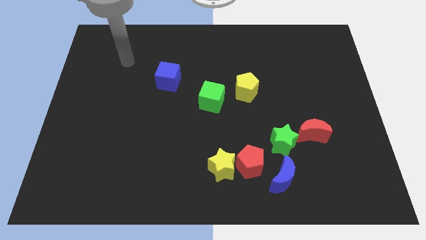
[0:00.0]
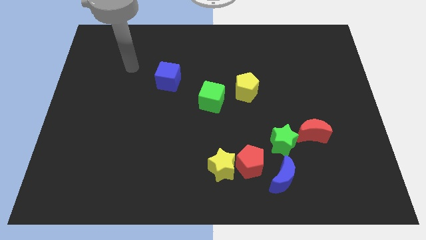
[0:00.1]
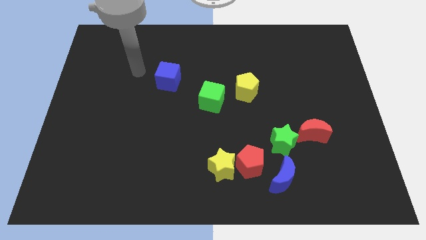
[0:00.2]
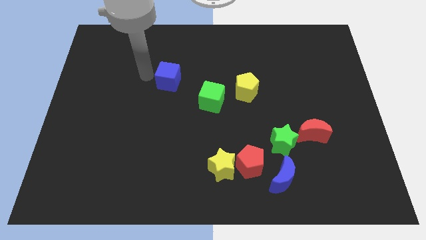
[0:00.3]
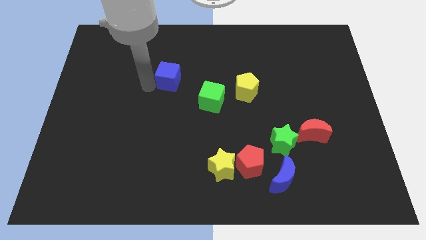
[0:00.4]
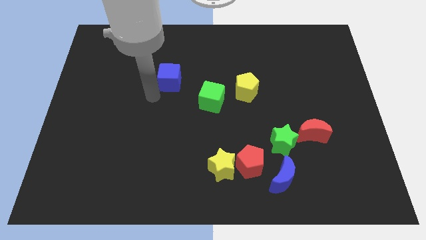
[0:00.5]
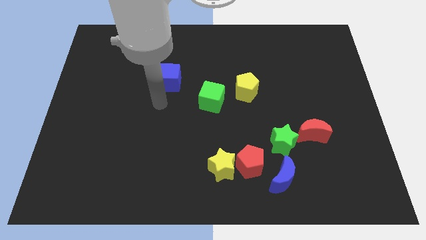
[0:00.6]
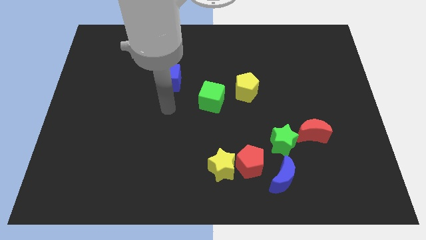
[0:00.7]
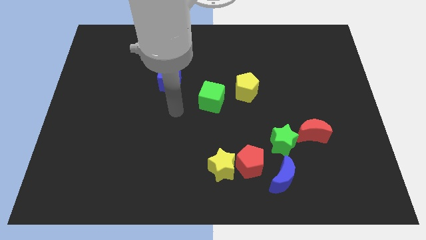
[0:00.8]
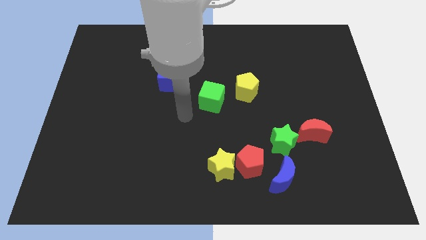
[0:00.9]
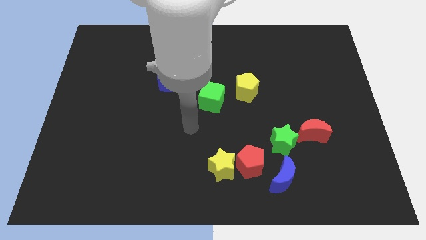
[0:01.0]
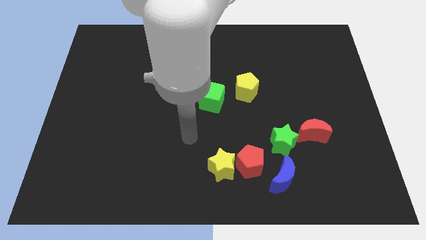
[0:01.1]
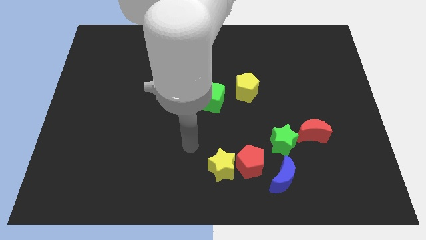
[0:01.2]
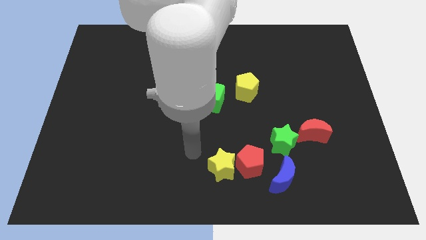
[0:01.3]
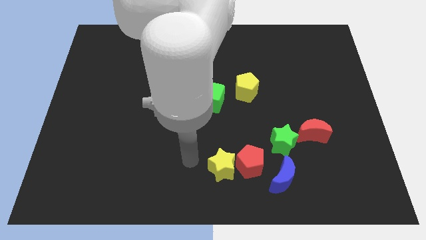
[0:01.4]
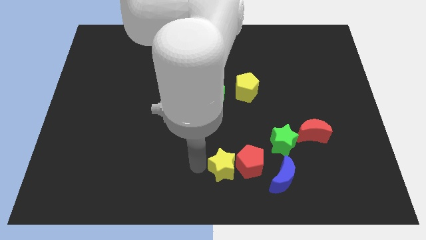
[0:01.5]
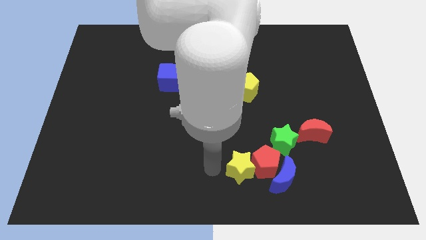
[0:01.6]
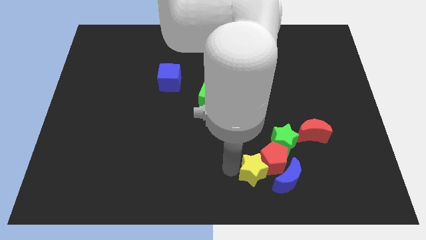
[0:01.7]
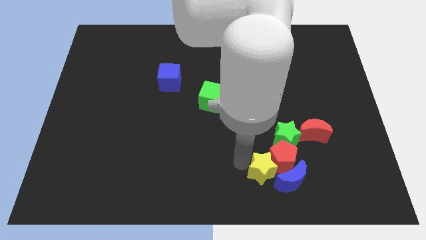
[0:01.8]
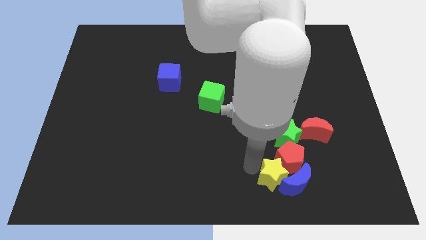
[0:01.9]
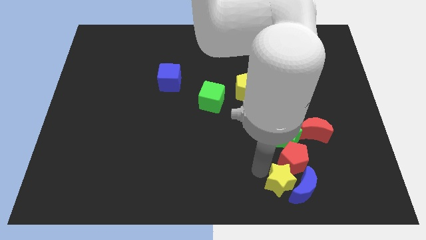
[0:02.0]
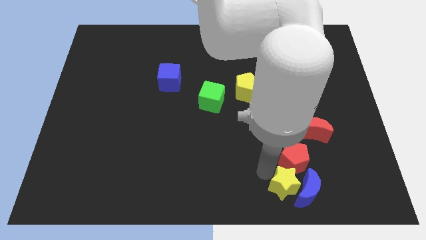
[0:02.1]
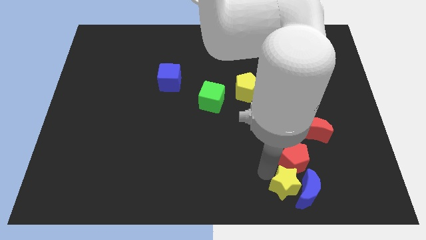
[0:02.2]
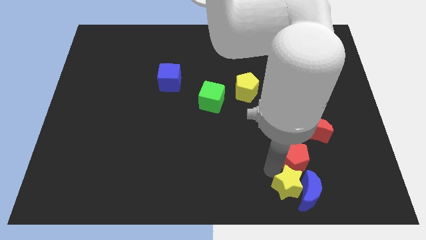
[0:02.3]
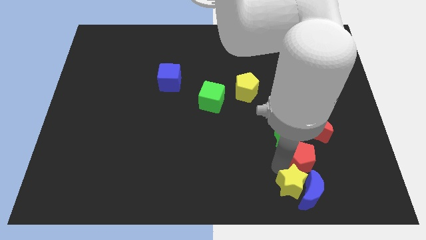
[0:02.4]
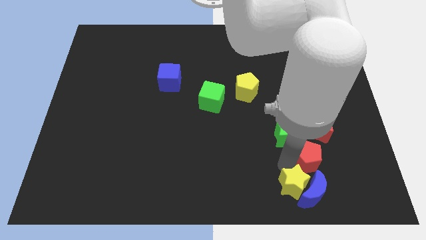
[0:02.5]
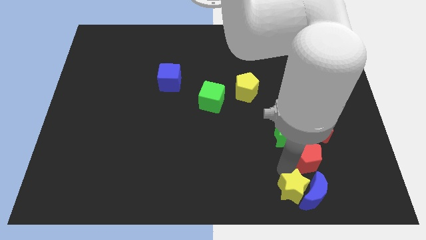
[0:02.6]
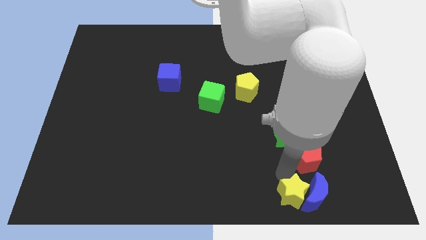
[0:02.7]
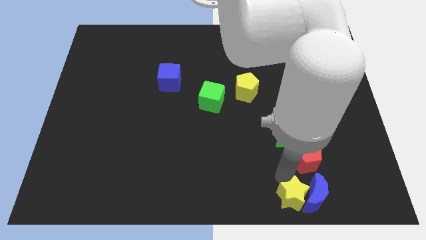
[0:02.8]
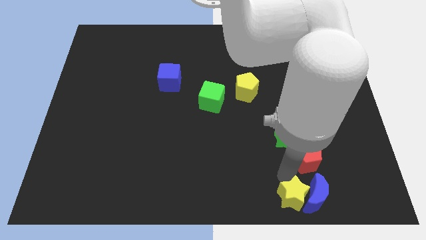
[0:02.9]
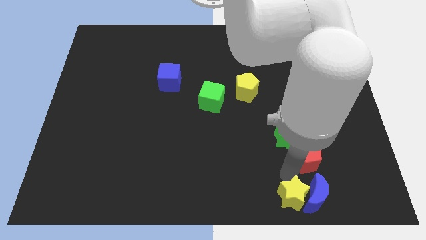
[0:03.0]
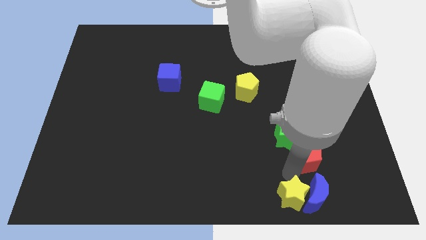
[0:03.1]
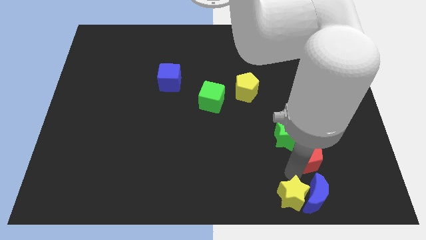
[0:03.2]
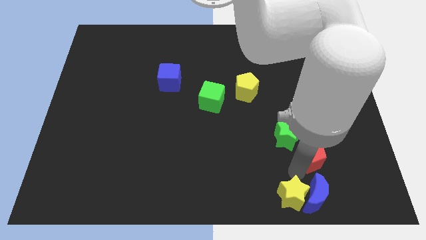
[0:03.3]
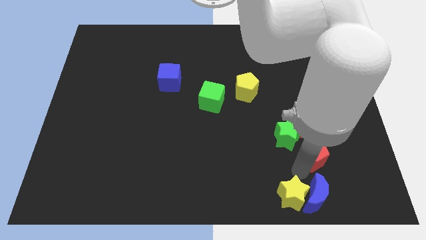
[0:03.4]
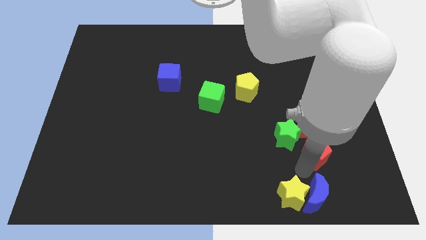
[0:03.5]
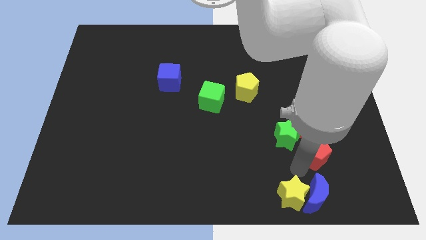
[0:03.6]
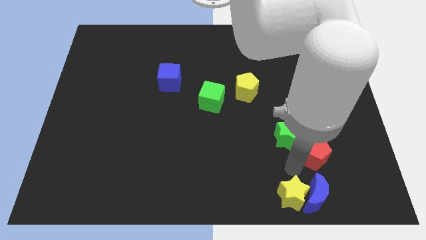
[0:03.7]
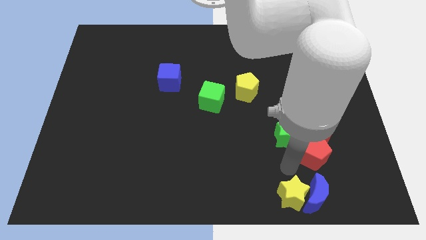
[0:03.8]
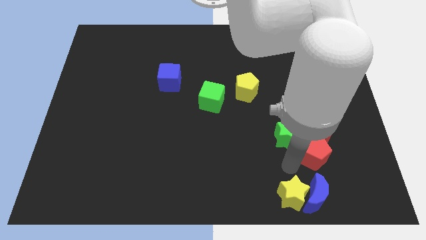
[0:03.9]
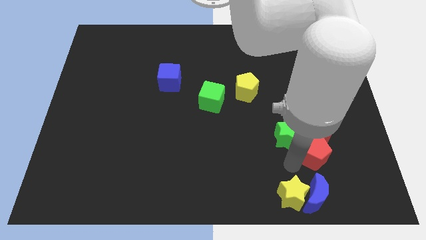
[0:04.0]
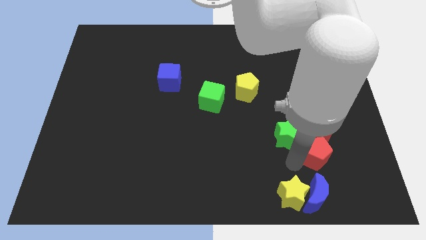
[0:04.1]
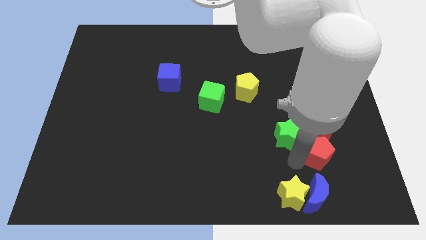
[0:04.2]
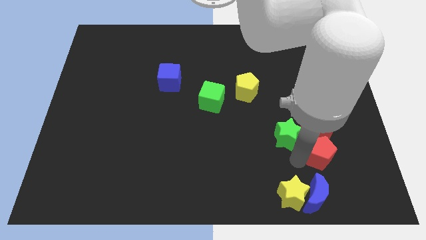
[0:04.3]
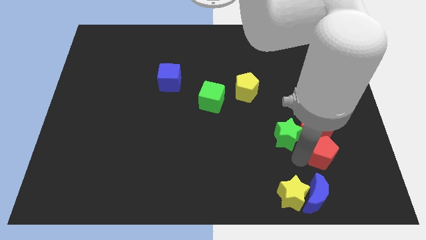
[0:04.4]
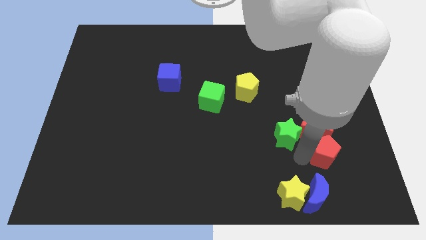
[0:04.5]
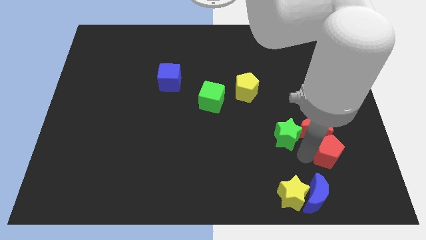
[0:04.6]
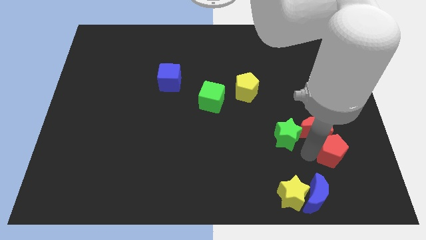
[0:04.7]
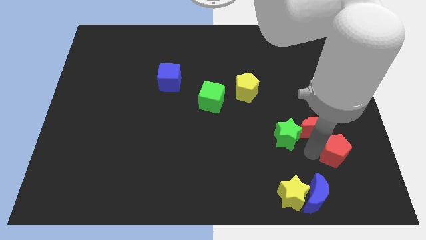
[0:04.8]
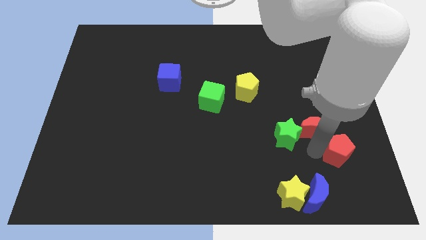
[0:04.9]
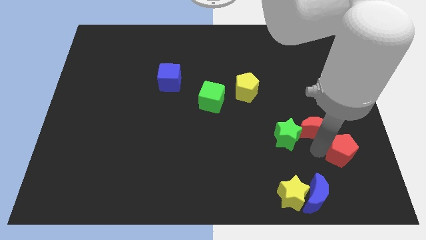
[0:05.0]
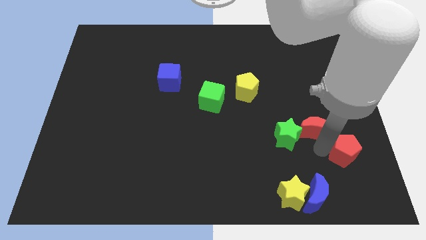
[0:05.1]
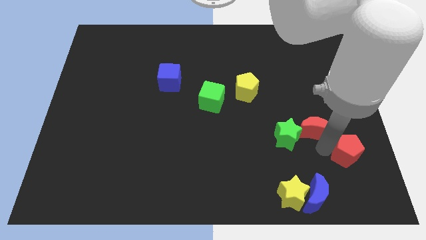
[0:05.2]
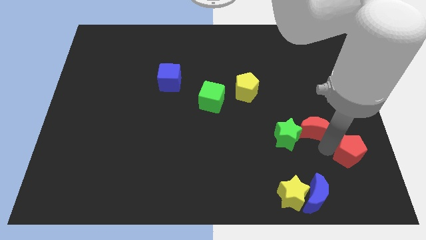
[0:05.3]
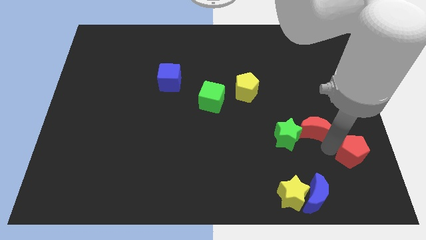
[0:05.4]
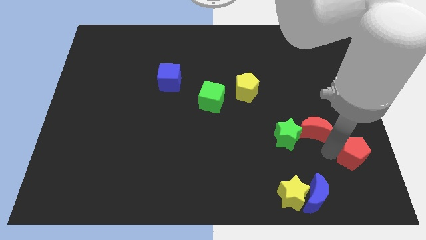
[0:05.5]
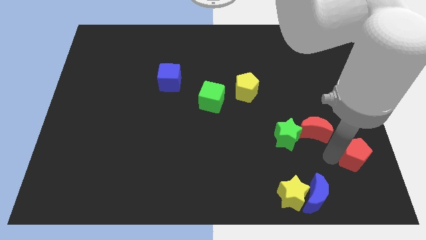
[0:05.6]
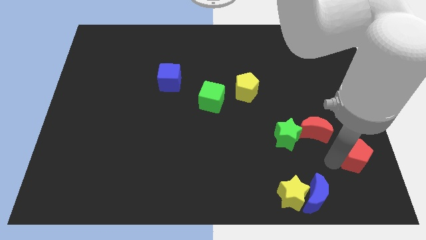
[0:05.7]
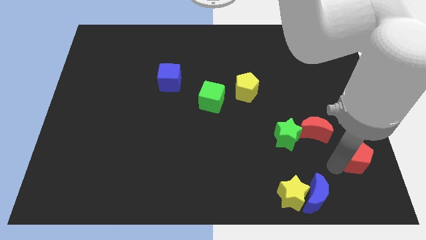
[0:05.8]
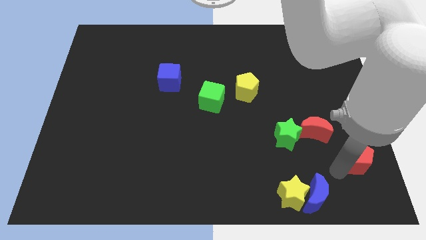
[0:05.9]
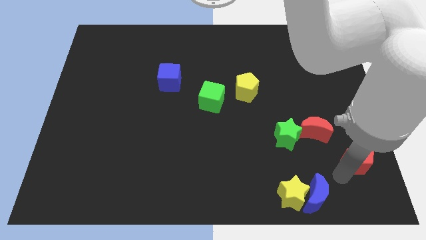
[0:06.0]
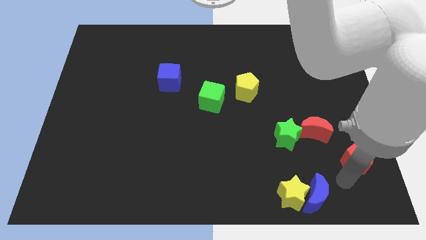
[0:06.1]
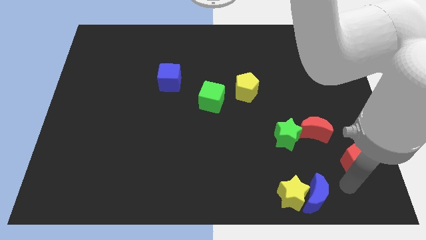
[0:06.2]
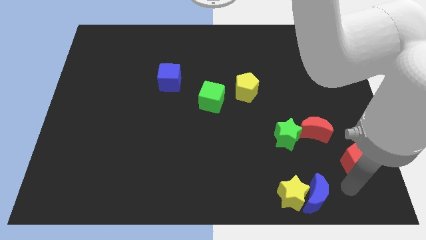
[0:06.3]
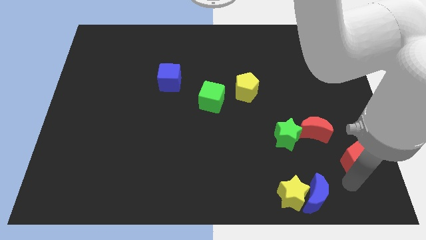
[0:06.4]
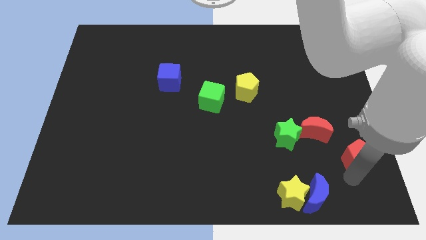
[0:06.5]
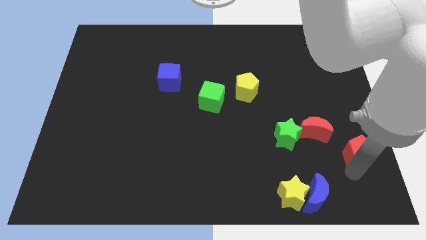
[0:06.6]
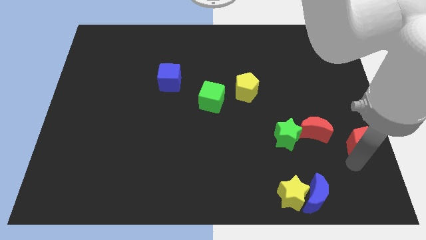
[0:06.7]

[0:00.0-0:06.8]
put the red pentagon to the right side
